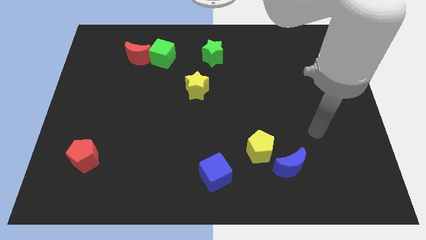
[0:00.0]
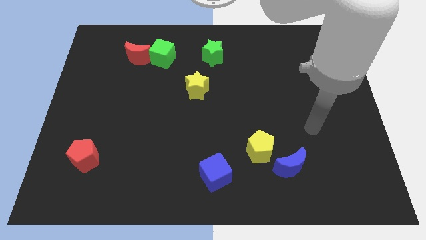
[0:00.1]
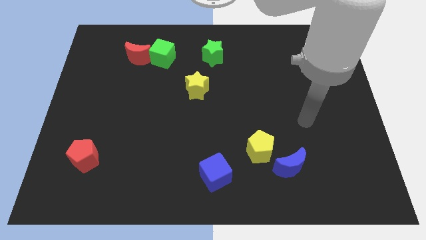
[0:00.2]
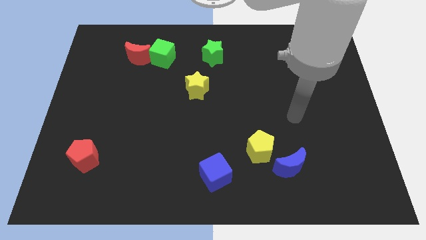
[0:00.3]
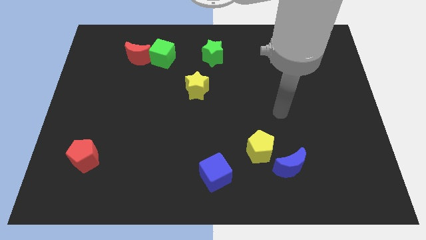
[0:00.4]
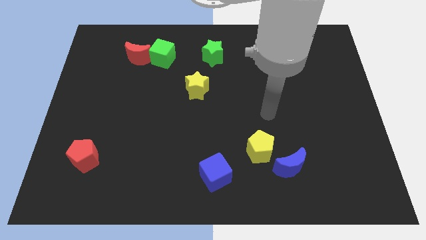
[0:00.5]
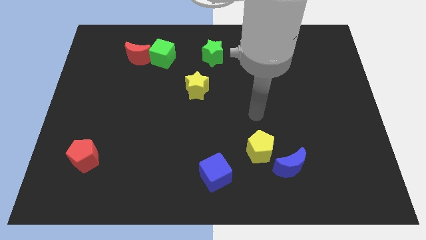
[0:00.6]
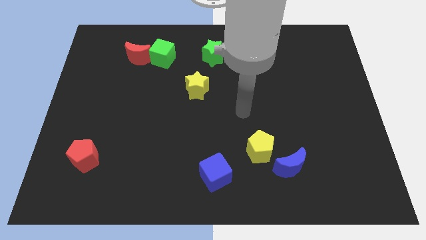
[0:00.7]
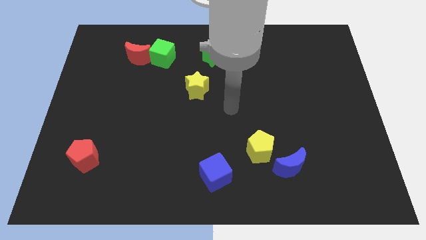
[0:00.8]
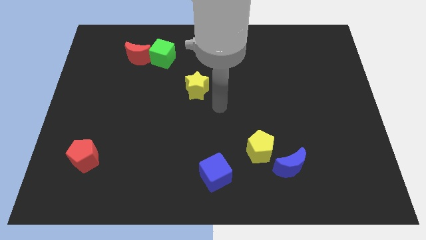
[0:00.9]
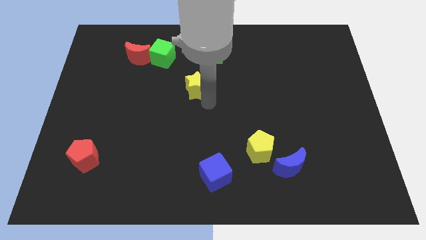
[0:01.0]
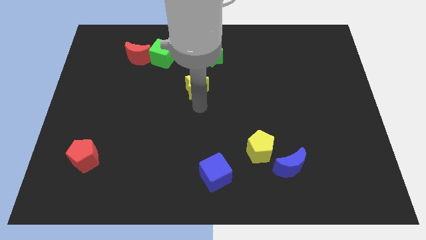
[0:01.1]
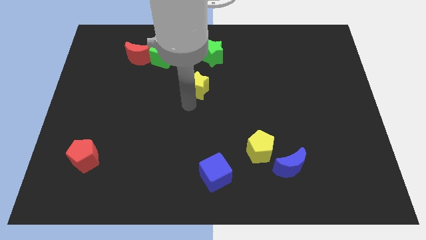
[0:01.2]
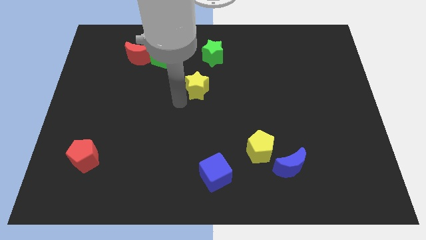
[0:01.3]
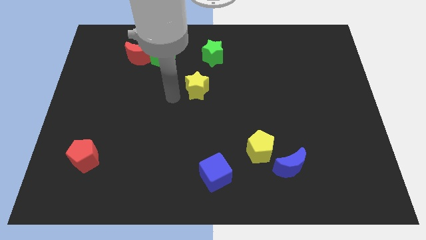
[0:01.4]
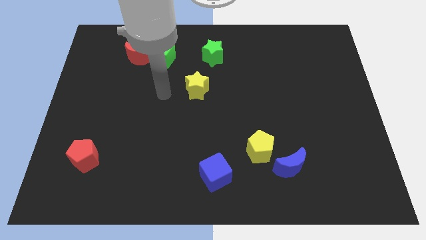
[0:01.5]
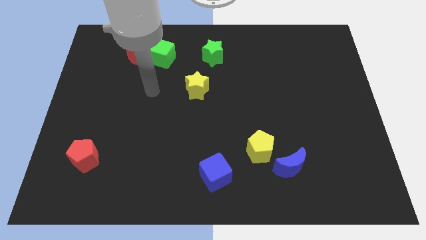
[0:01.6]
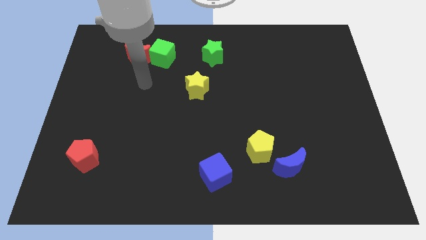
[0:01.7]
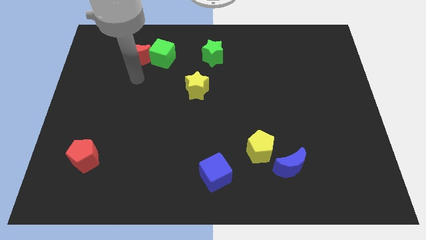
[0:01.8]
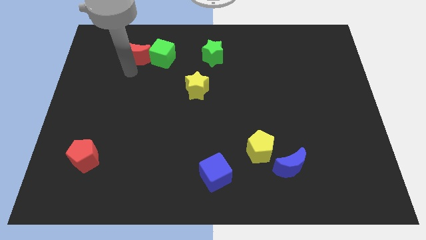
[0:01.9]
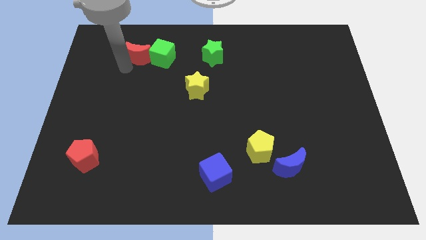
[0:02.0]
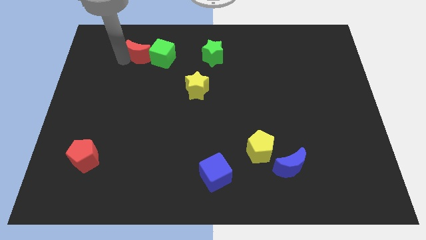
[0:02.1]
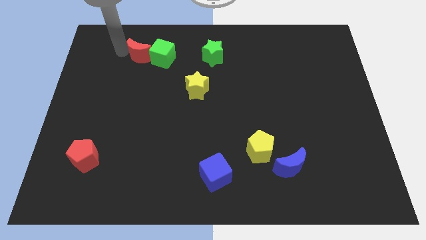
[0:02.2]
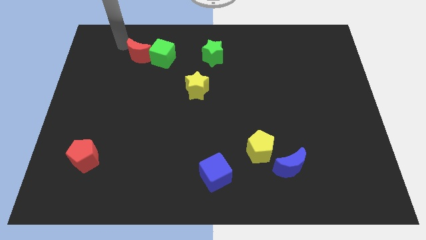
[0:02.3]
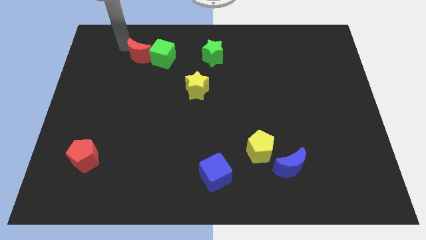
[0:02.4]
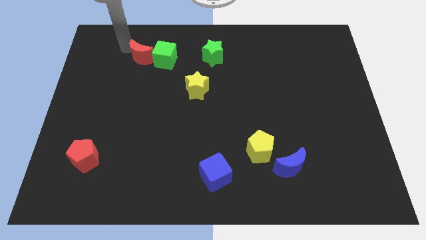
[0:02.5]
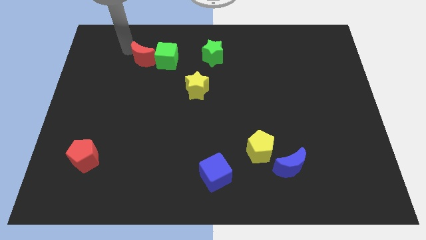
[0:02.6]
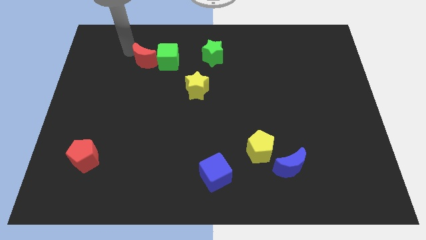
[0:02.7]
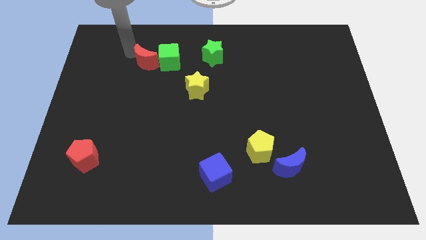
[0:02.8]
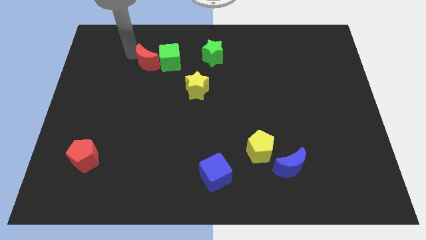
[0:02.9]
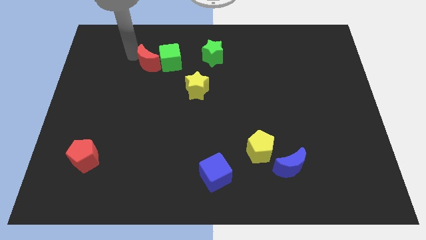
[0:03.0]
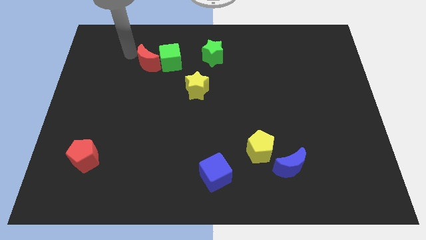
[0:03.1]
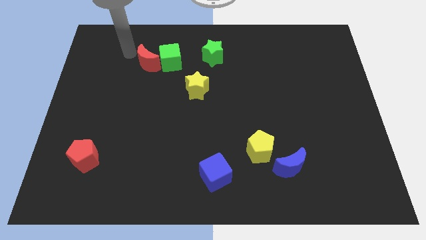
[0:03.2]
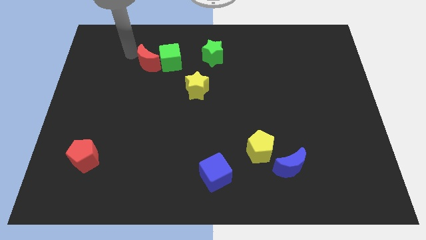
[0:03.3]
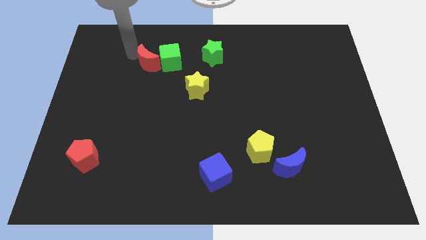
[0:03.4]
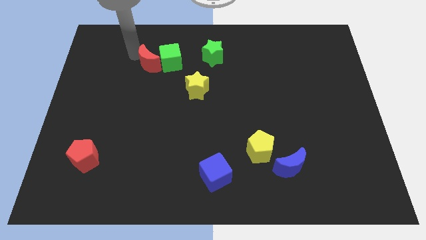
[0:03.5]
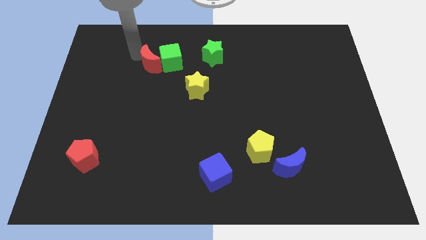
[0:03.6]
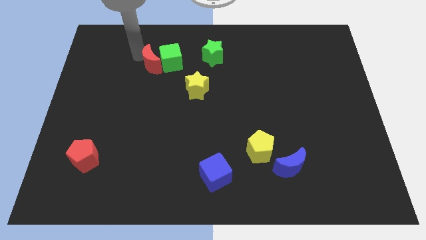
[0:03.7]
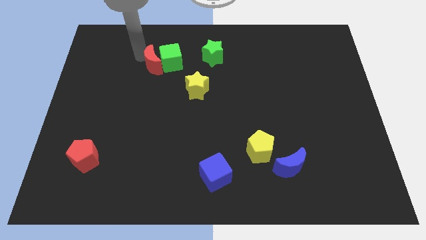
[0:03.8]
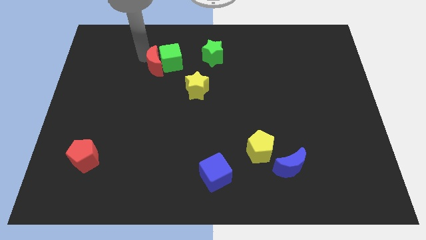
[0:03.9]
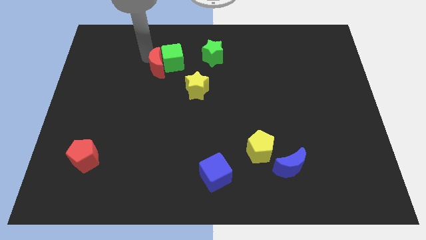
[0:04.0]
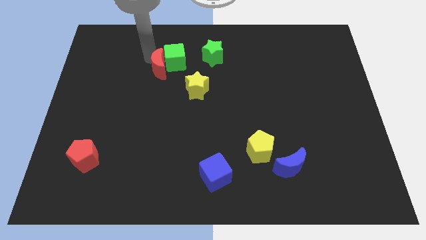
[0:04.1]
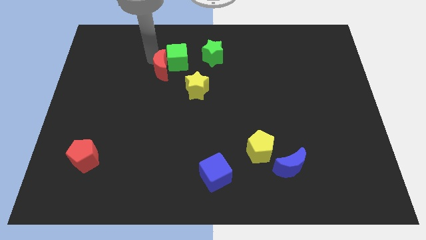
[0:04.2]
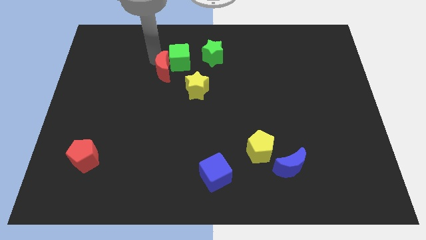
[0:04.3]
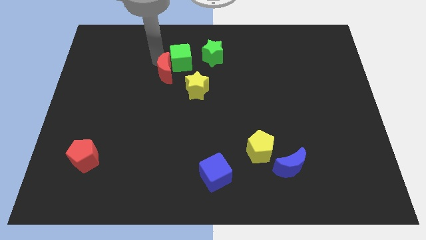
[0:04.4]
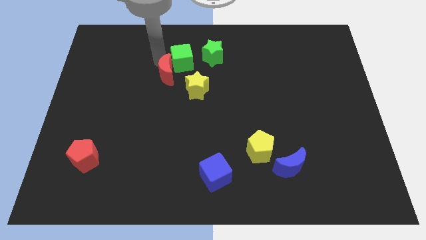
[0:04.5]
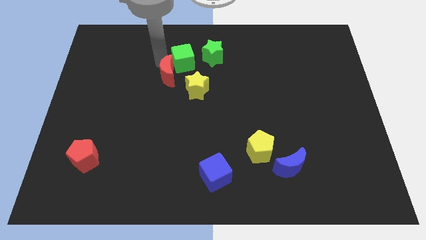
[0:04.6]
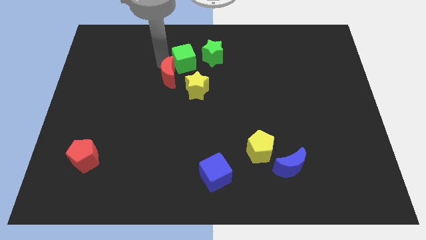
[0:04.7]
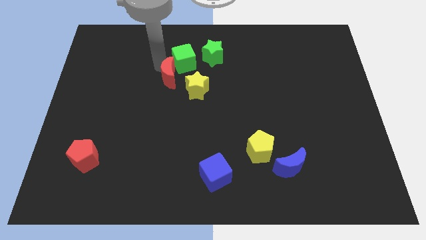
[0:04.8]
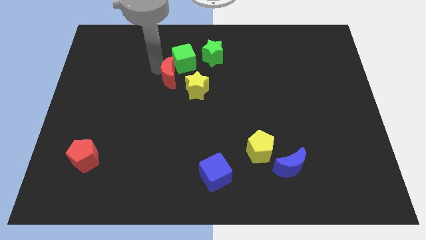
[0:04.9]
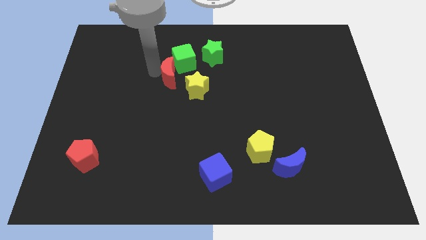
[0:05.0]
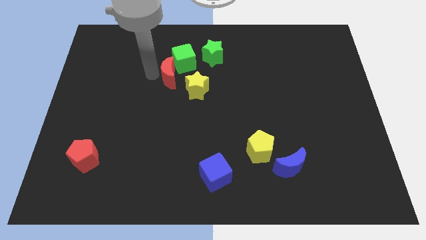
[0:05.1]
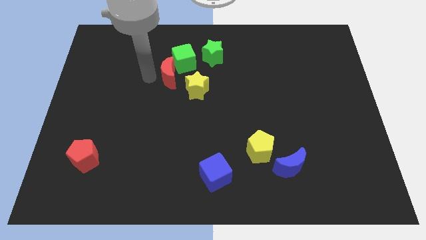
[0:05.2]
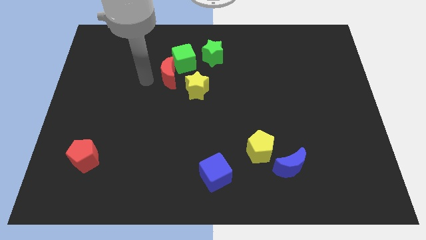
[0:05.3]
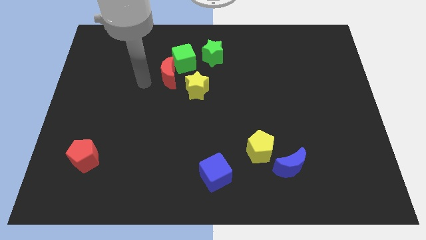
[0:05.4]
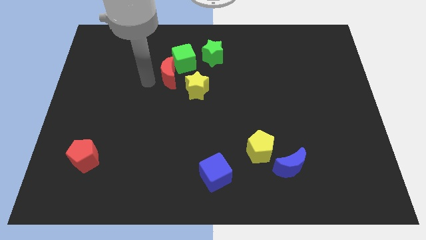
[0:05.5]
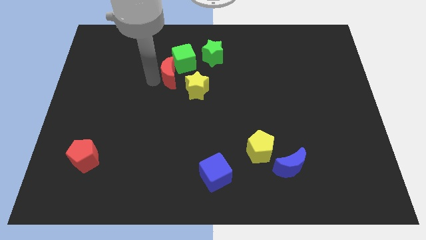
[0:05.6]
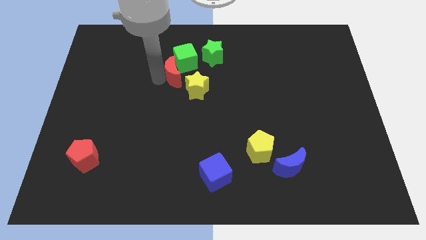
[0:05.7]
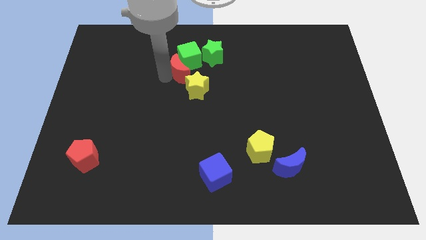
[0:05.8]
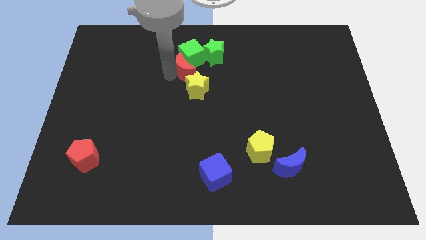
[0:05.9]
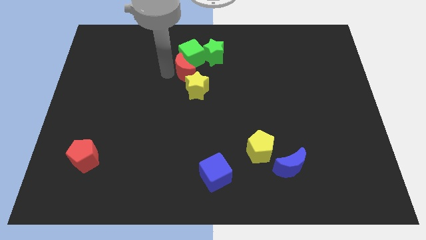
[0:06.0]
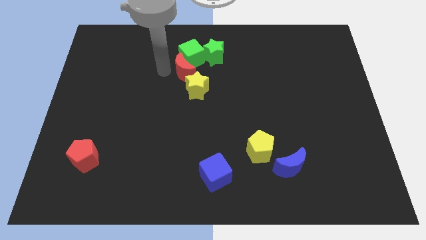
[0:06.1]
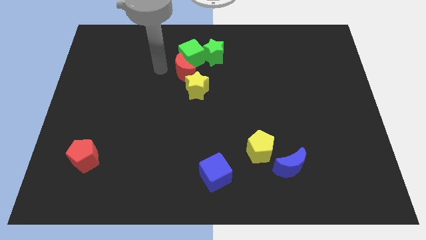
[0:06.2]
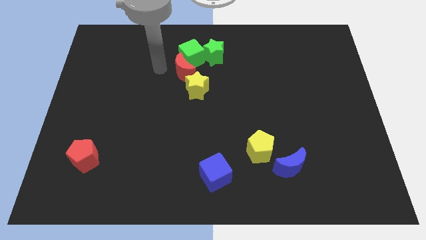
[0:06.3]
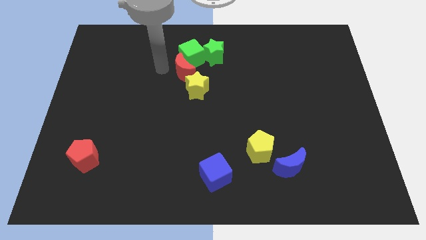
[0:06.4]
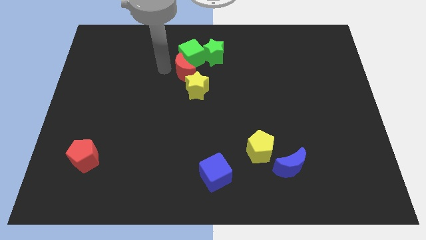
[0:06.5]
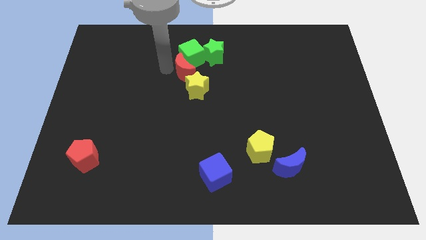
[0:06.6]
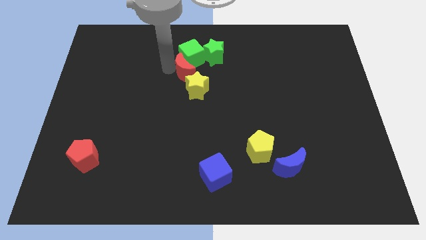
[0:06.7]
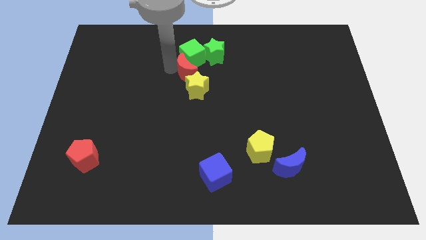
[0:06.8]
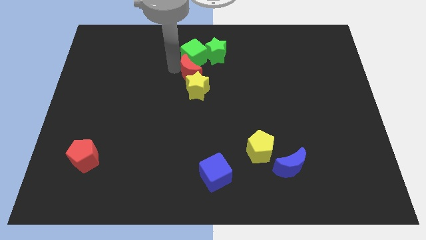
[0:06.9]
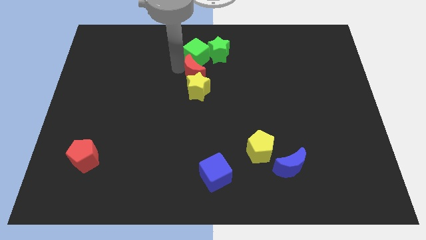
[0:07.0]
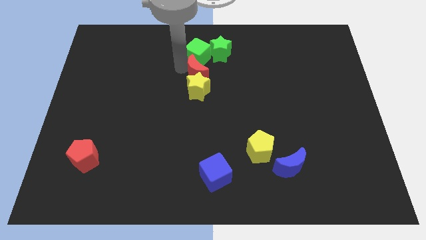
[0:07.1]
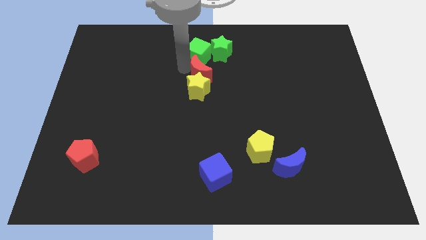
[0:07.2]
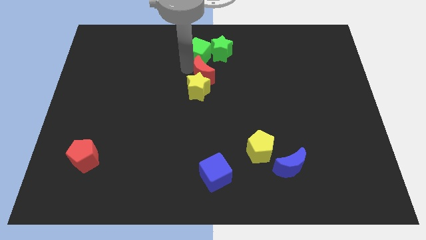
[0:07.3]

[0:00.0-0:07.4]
put the red moon to the bottom side of the green star
